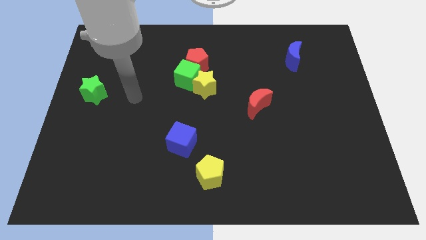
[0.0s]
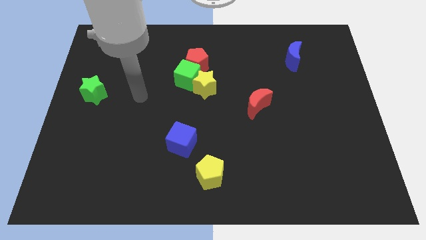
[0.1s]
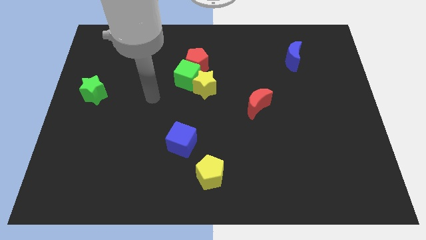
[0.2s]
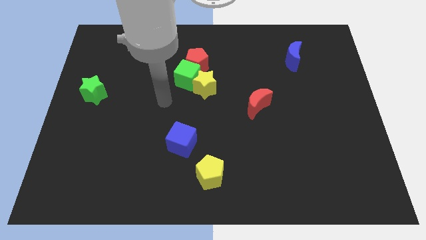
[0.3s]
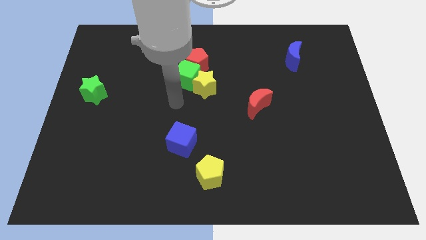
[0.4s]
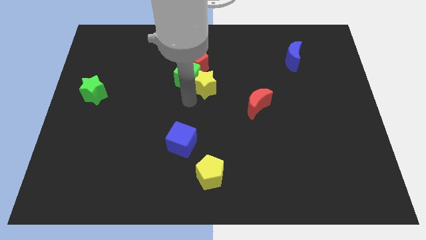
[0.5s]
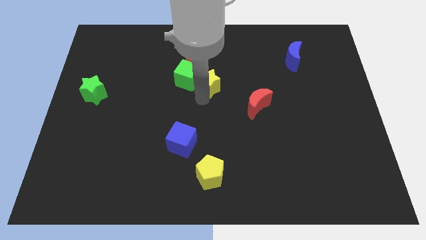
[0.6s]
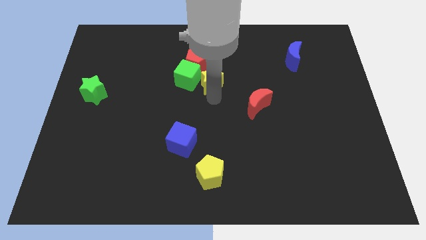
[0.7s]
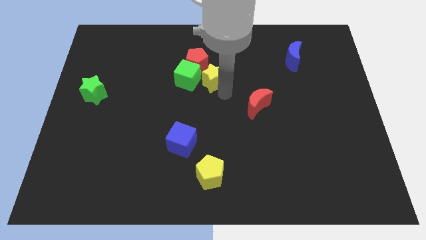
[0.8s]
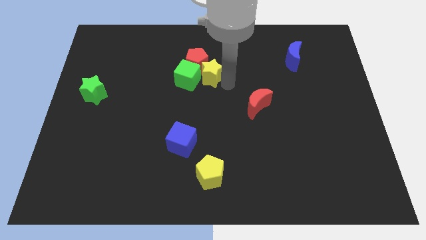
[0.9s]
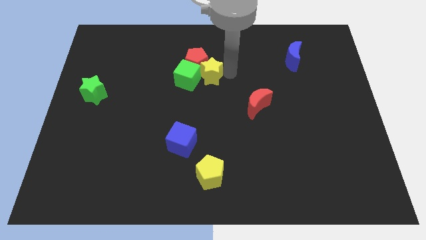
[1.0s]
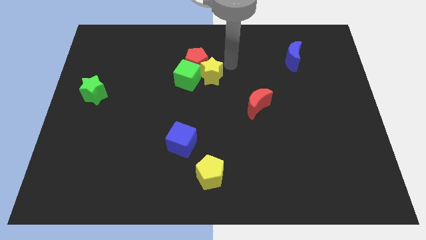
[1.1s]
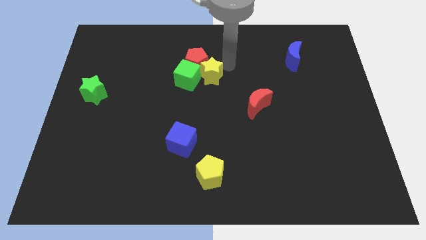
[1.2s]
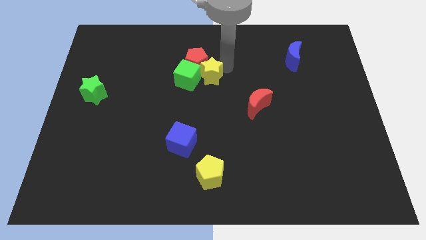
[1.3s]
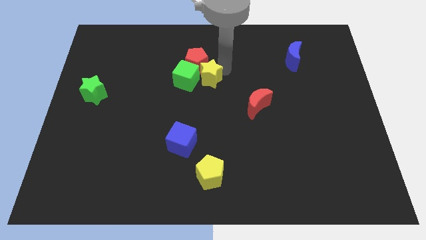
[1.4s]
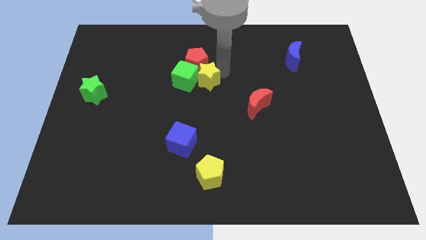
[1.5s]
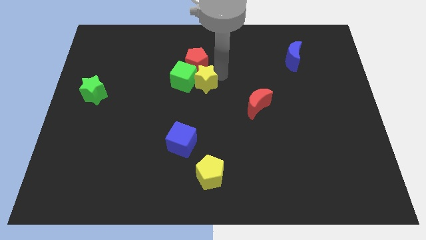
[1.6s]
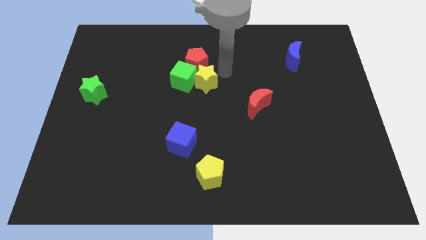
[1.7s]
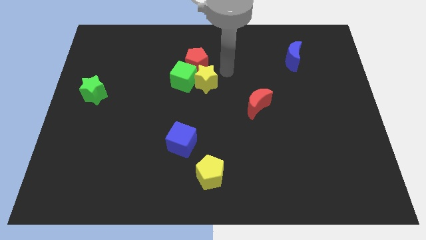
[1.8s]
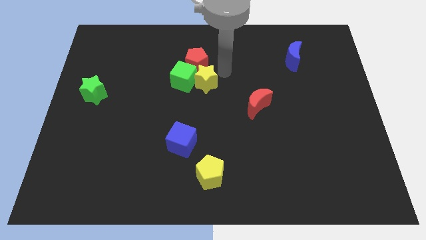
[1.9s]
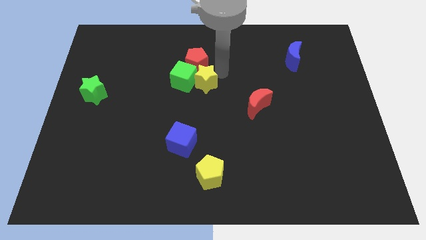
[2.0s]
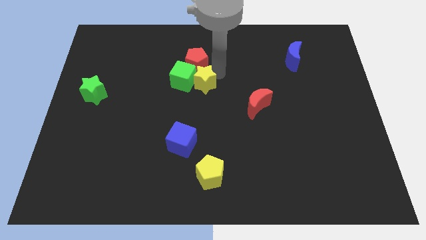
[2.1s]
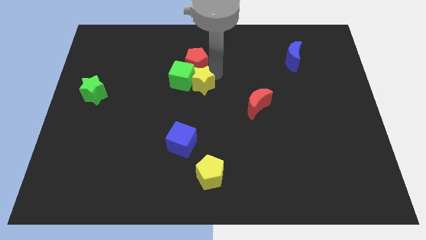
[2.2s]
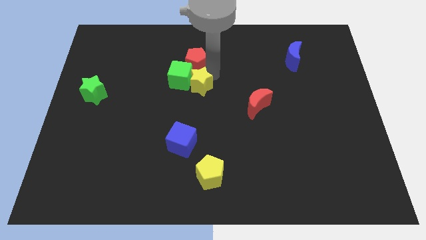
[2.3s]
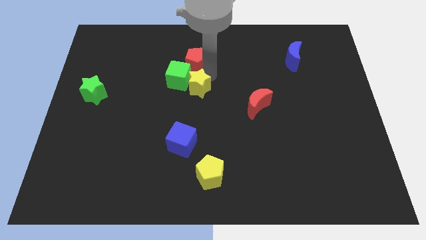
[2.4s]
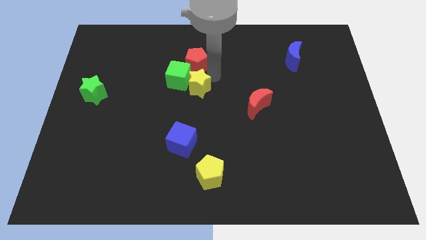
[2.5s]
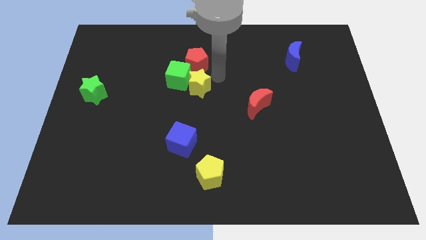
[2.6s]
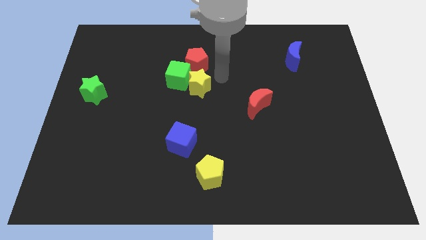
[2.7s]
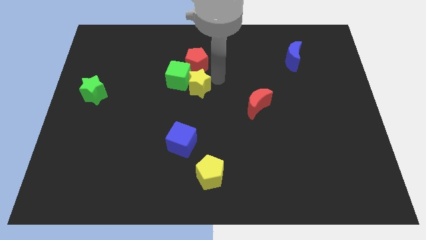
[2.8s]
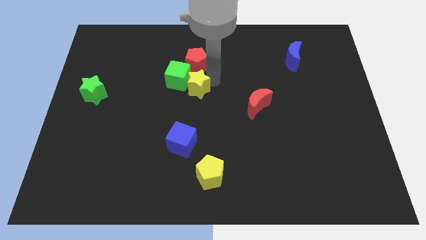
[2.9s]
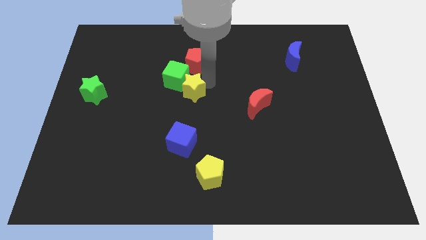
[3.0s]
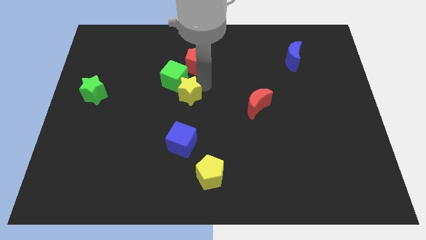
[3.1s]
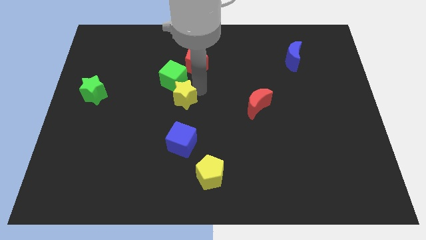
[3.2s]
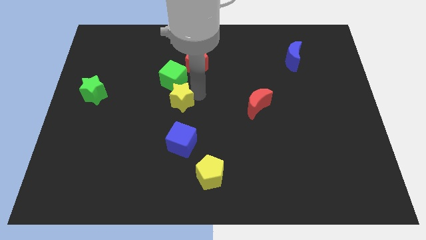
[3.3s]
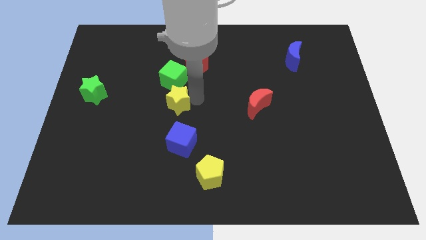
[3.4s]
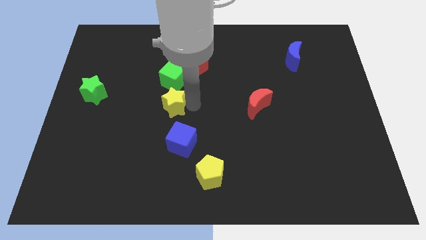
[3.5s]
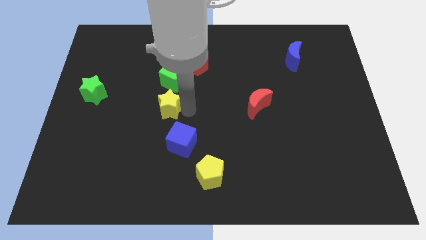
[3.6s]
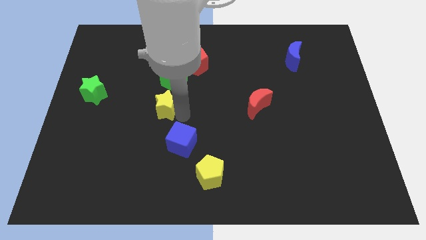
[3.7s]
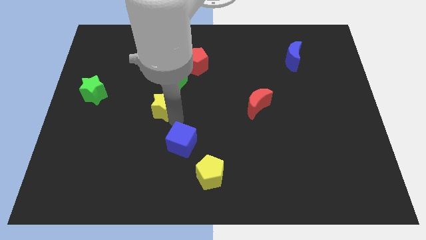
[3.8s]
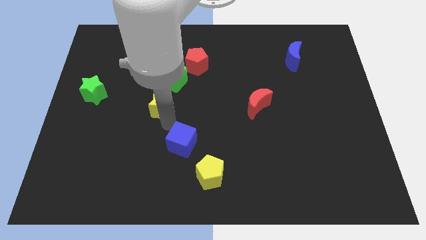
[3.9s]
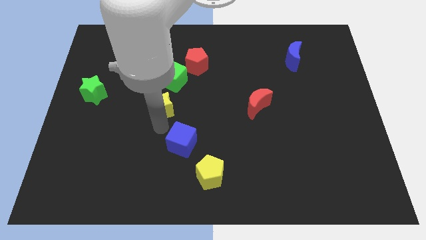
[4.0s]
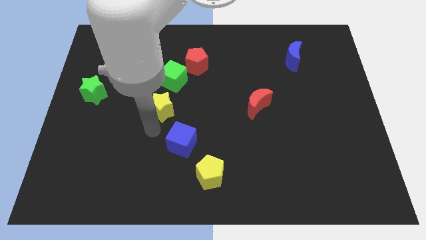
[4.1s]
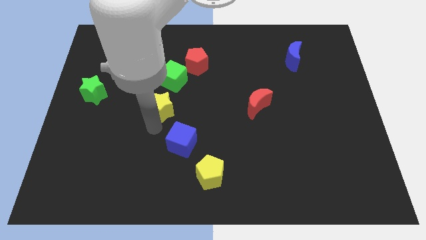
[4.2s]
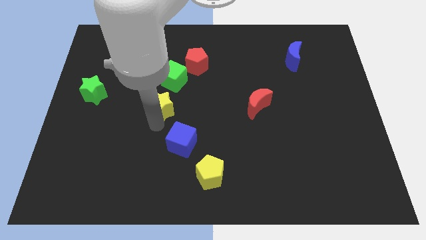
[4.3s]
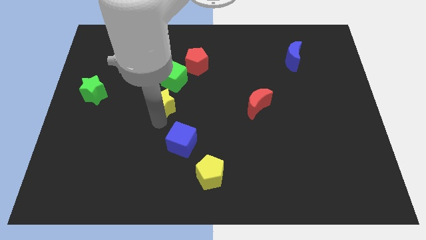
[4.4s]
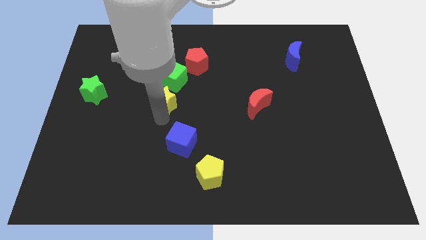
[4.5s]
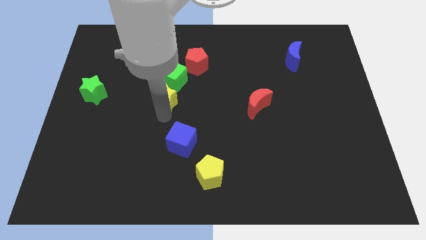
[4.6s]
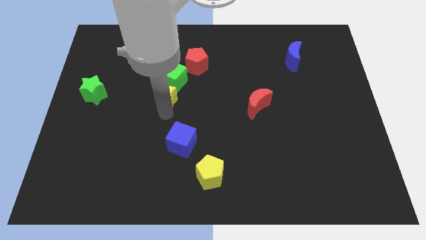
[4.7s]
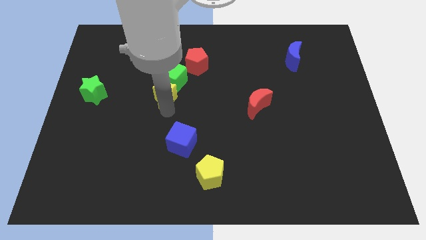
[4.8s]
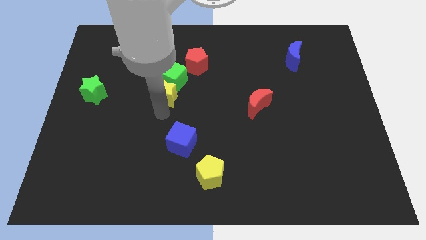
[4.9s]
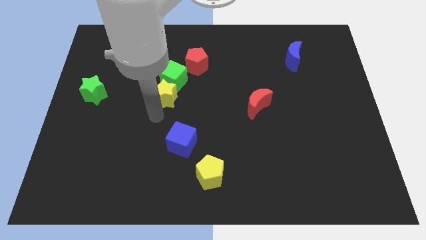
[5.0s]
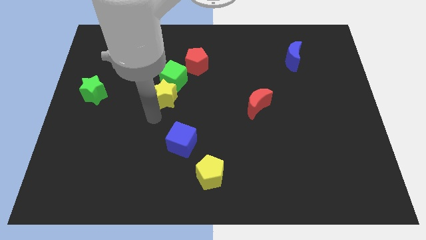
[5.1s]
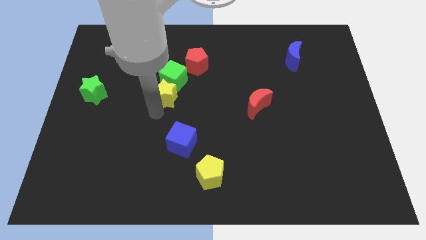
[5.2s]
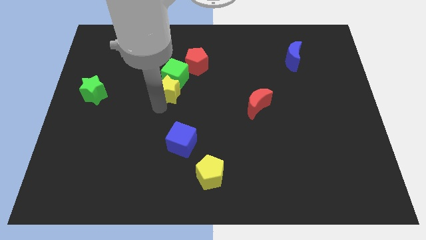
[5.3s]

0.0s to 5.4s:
put the yellow star diagonally down and to the left of the red pentagon

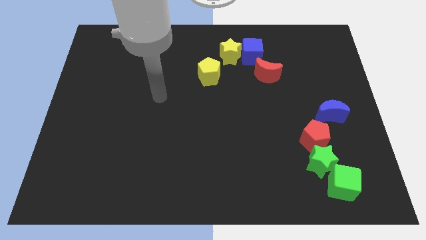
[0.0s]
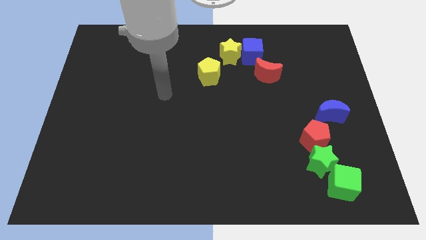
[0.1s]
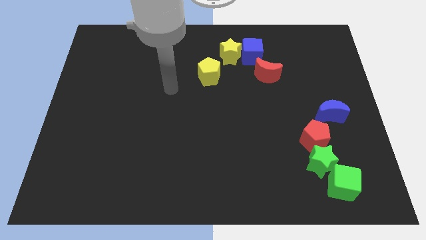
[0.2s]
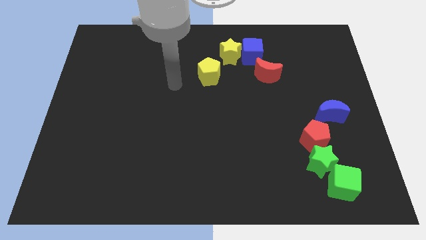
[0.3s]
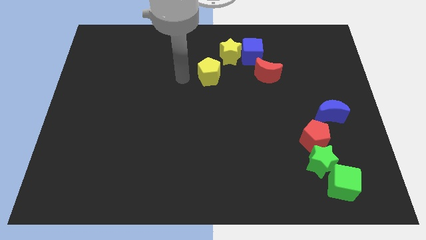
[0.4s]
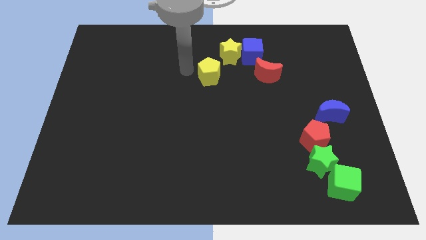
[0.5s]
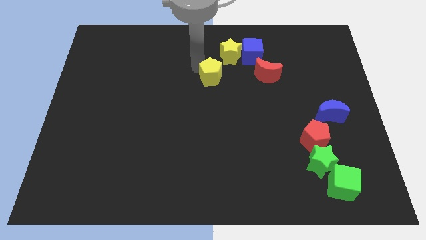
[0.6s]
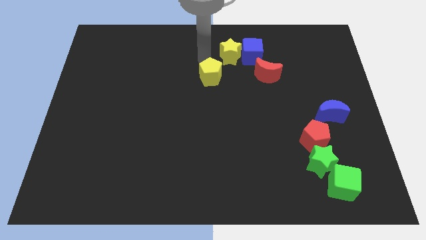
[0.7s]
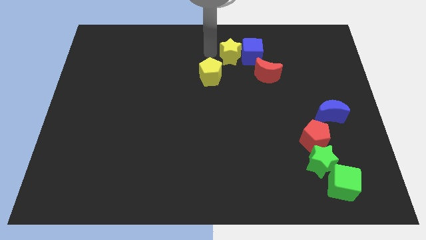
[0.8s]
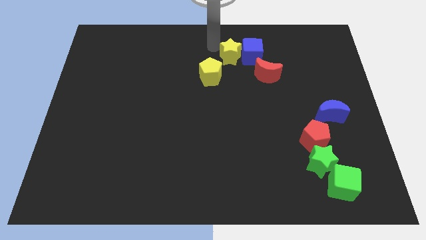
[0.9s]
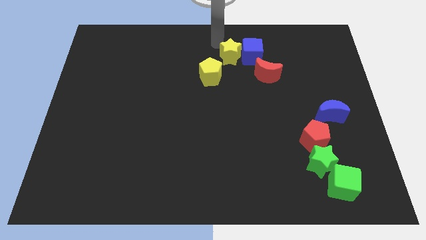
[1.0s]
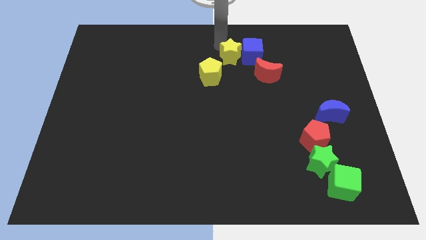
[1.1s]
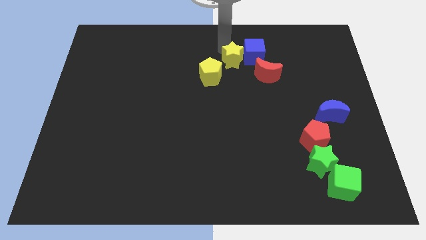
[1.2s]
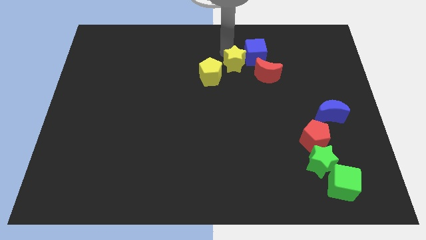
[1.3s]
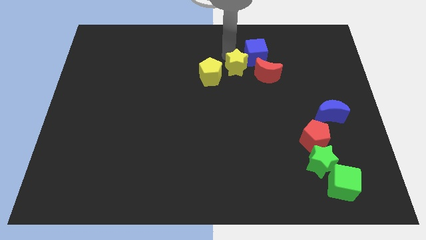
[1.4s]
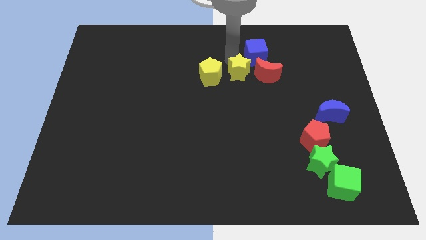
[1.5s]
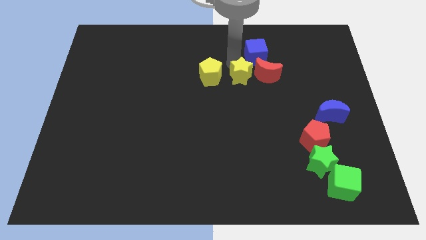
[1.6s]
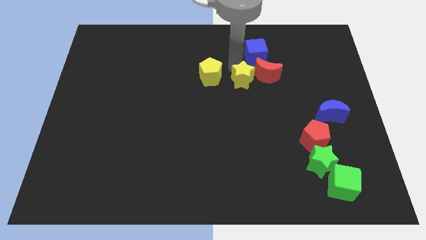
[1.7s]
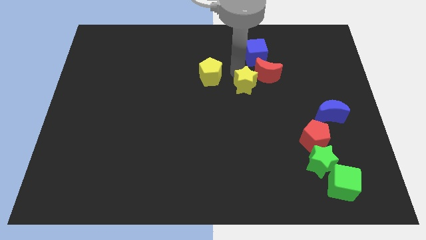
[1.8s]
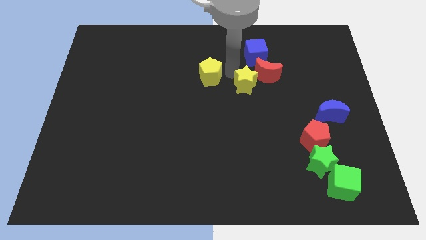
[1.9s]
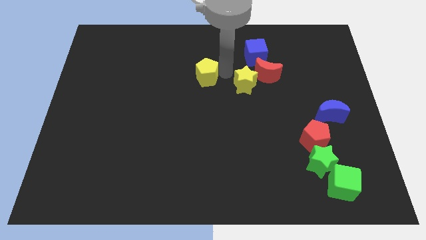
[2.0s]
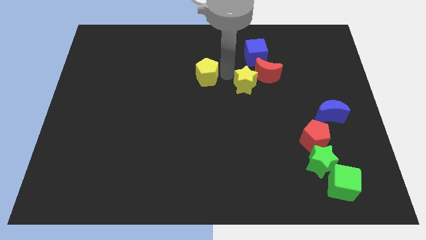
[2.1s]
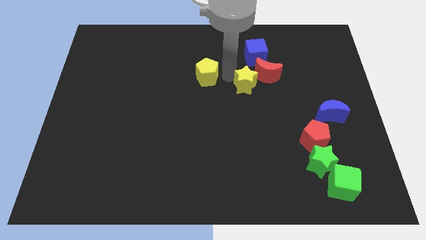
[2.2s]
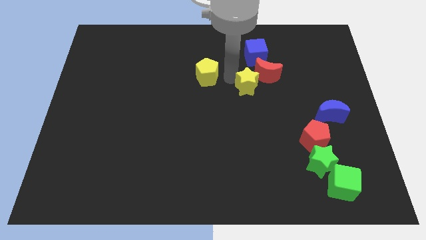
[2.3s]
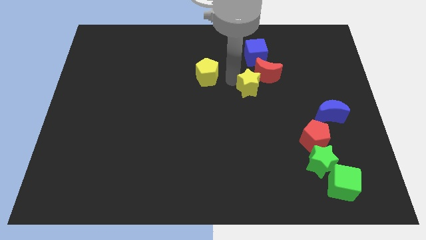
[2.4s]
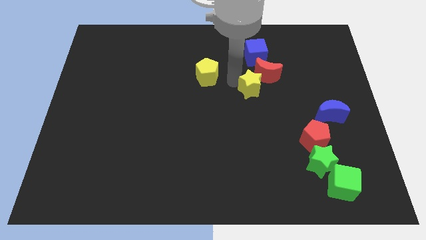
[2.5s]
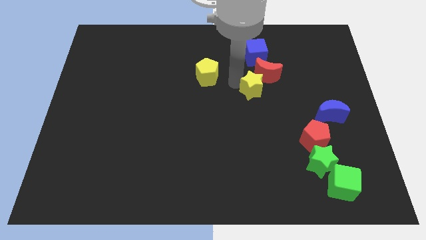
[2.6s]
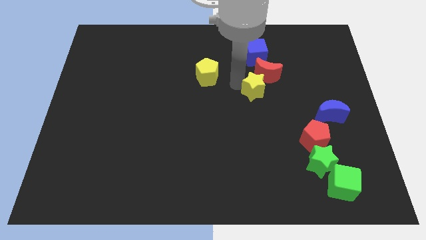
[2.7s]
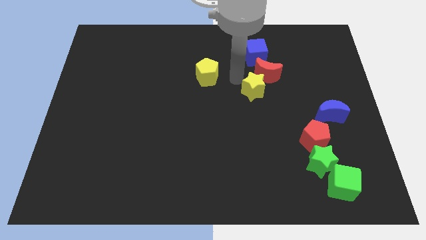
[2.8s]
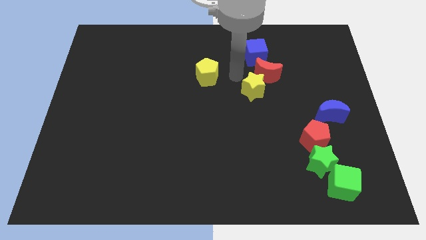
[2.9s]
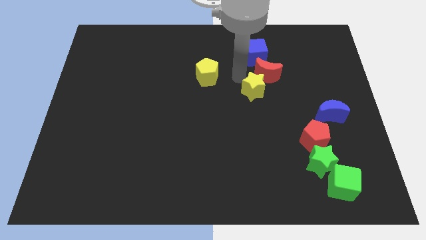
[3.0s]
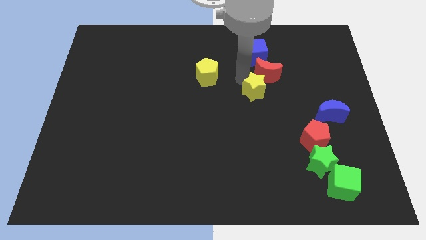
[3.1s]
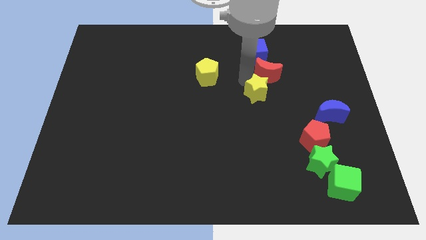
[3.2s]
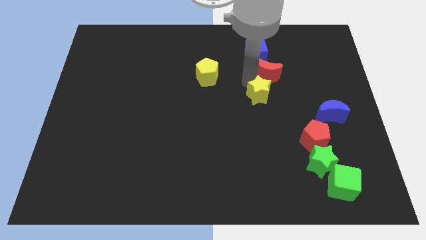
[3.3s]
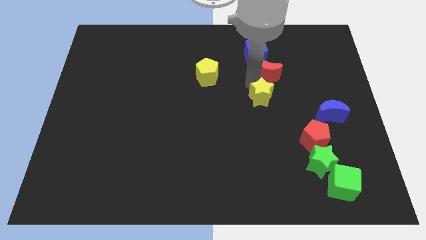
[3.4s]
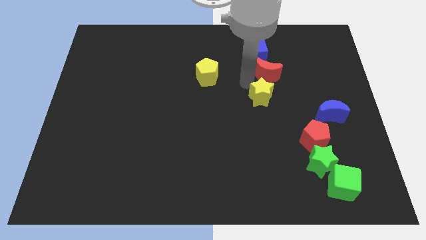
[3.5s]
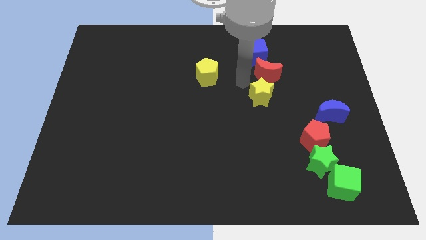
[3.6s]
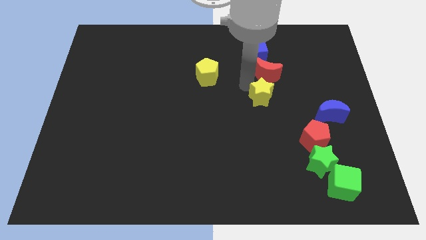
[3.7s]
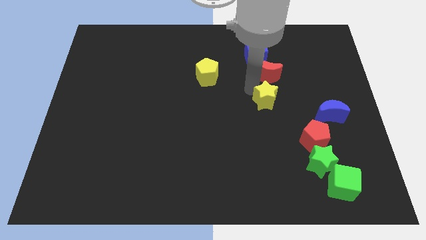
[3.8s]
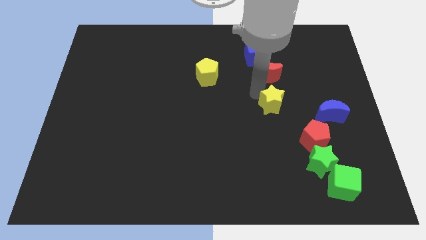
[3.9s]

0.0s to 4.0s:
push the yellow star to the left side of the blue moon
